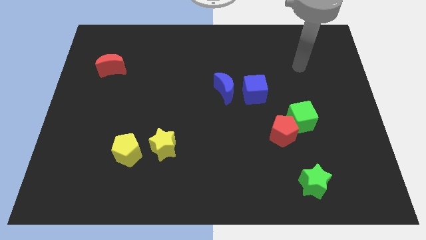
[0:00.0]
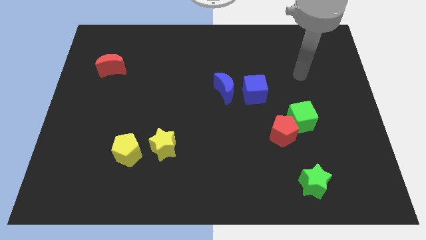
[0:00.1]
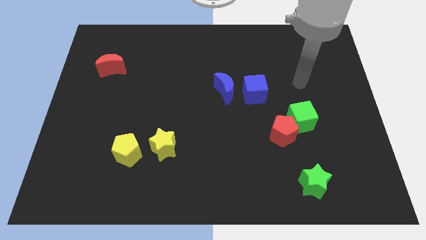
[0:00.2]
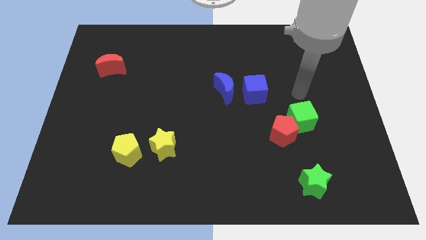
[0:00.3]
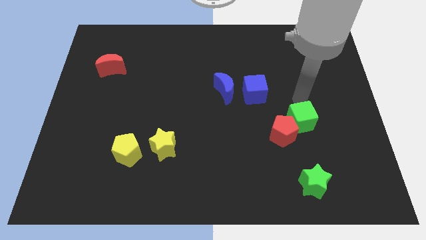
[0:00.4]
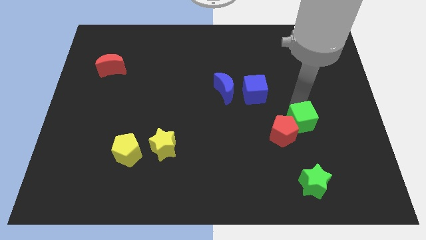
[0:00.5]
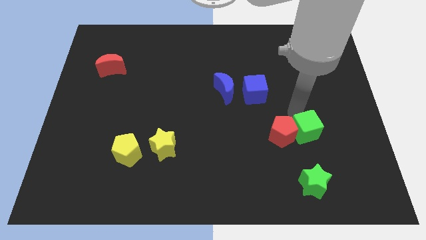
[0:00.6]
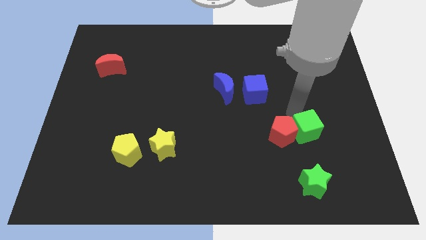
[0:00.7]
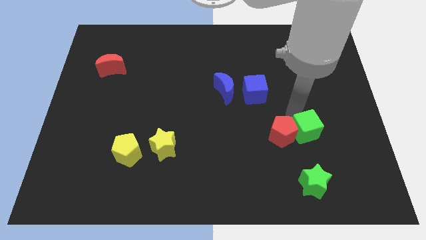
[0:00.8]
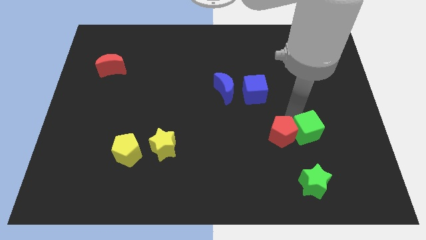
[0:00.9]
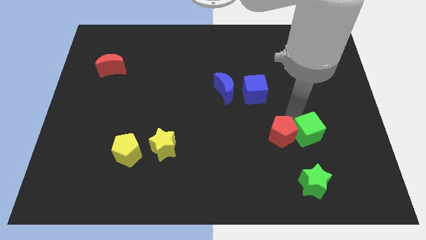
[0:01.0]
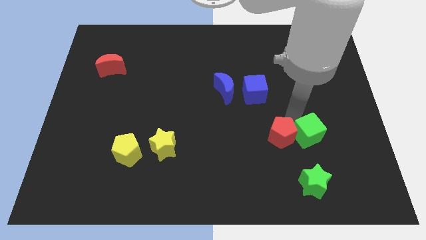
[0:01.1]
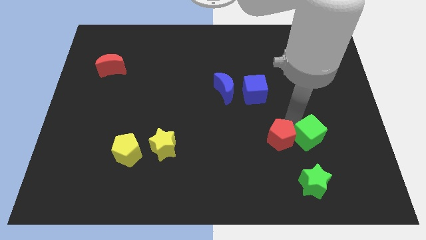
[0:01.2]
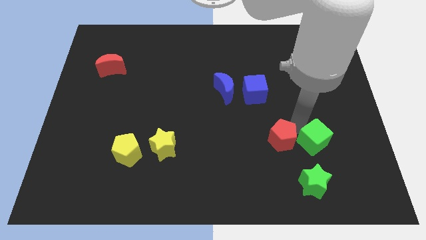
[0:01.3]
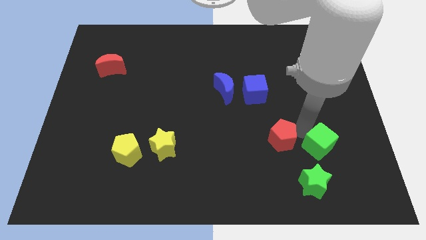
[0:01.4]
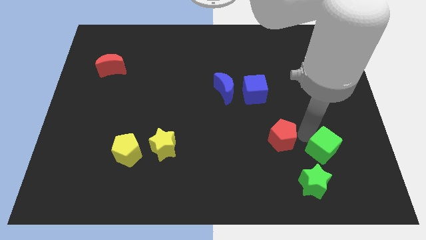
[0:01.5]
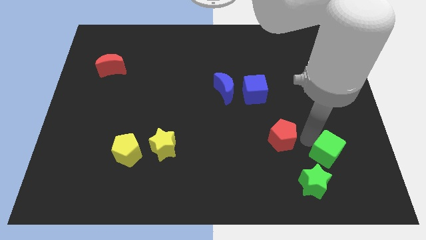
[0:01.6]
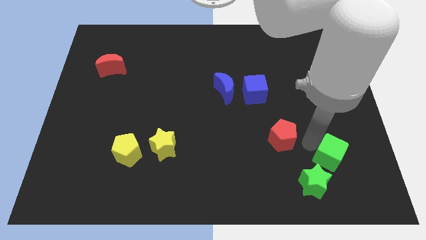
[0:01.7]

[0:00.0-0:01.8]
move the red pentagon away from the green cube

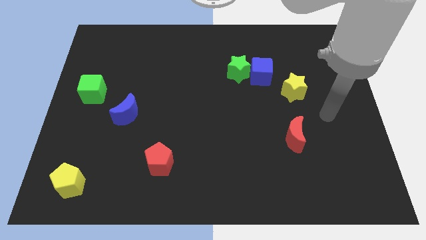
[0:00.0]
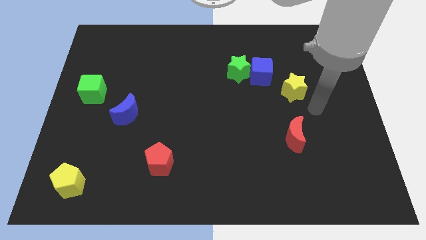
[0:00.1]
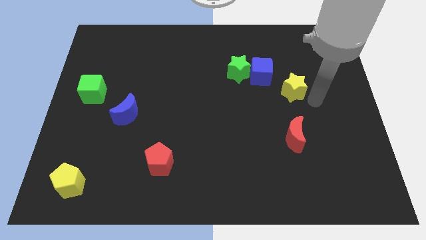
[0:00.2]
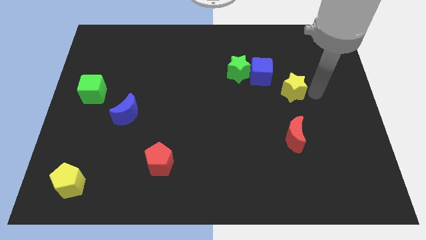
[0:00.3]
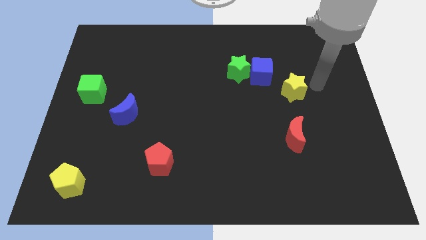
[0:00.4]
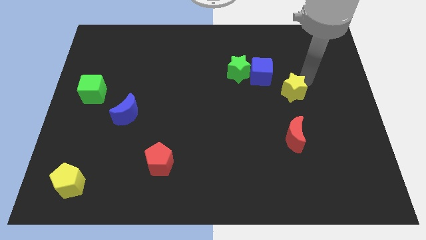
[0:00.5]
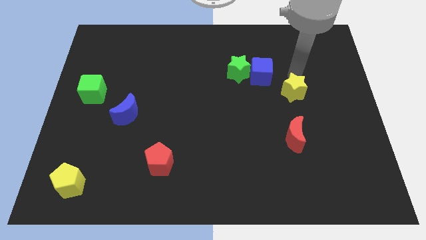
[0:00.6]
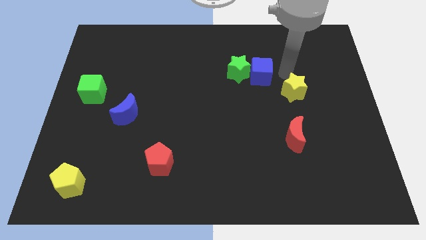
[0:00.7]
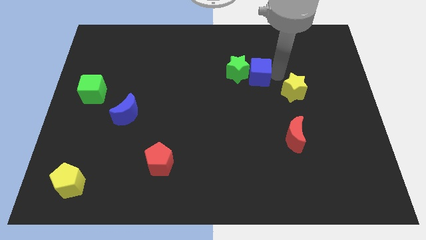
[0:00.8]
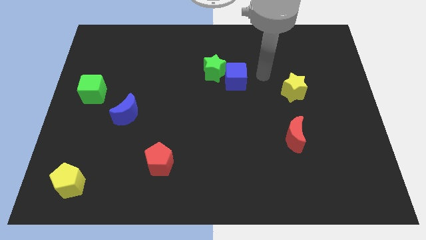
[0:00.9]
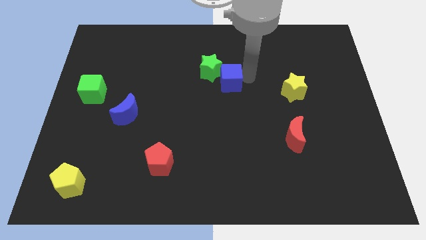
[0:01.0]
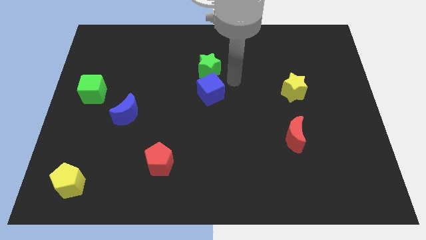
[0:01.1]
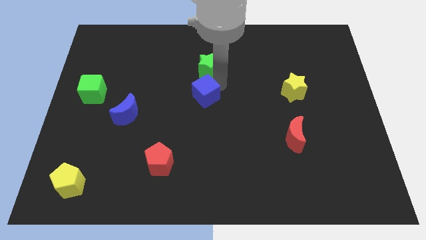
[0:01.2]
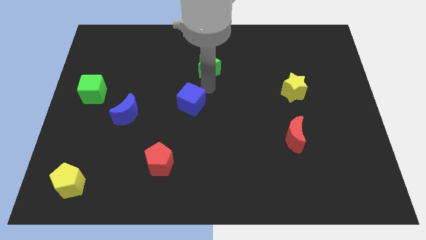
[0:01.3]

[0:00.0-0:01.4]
move the green star away from the blue cube

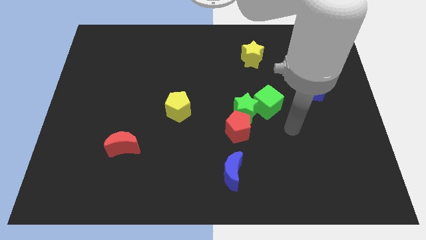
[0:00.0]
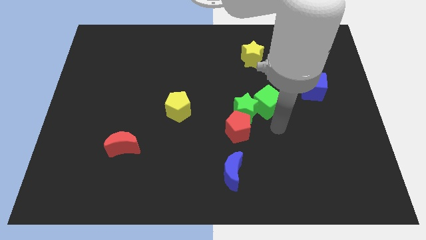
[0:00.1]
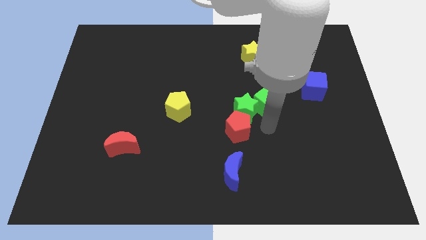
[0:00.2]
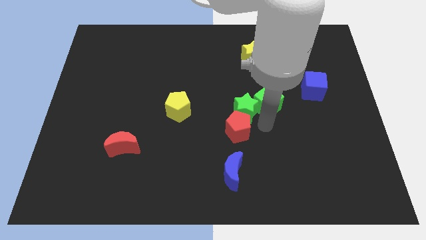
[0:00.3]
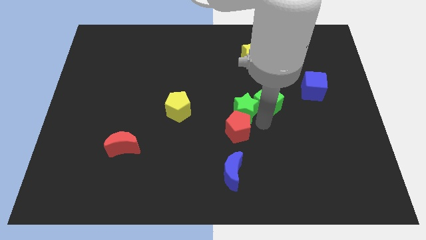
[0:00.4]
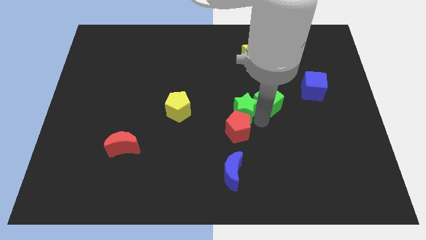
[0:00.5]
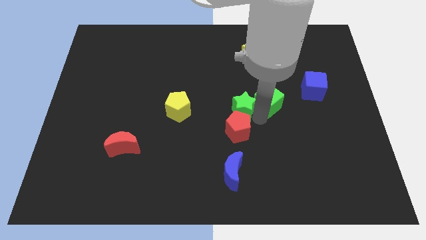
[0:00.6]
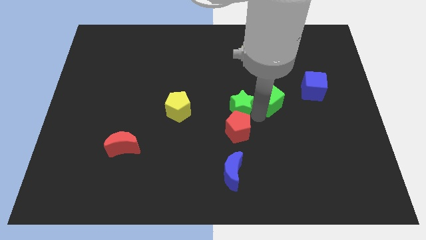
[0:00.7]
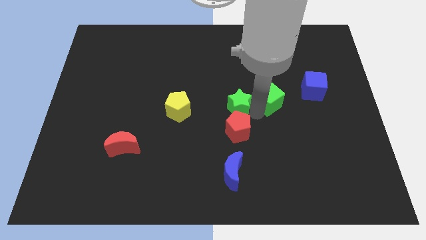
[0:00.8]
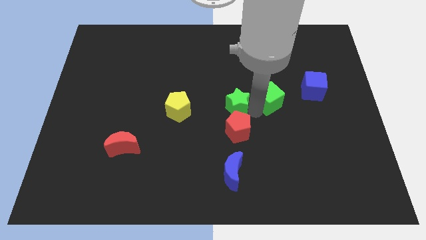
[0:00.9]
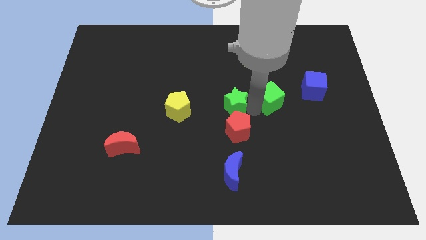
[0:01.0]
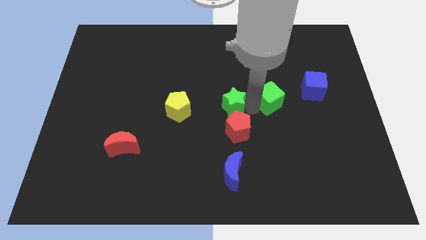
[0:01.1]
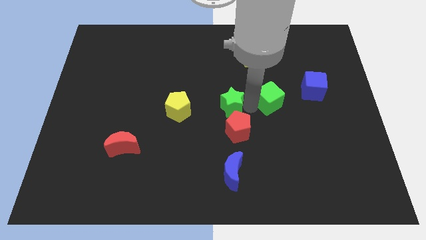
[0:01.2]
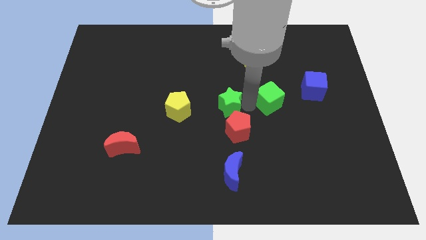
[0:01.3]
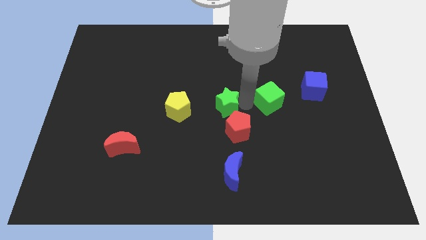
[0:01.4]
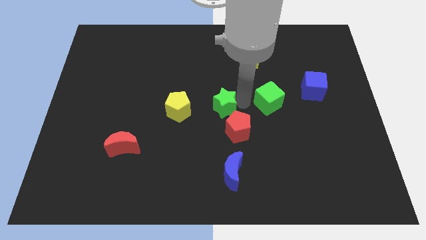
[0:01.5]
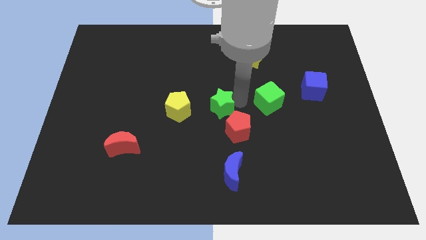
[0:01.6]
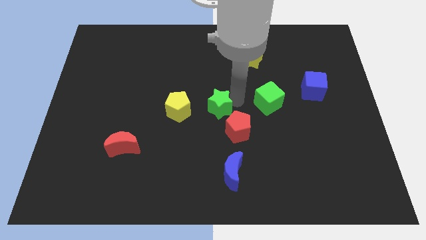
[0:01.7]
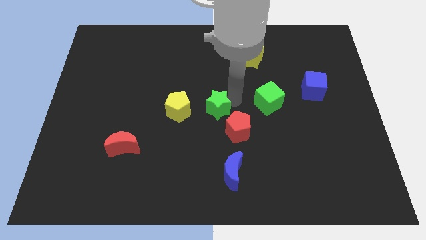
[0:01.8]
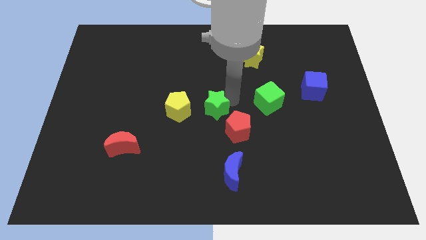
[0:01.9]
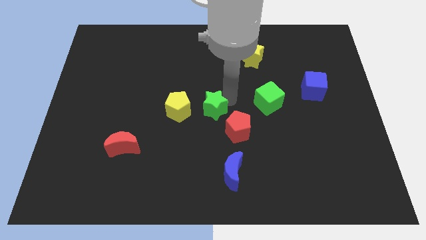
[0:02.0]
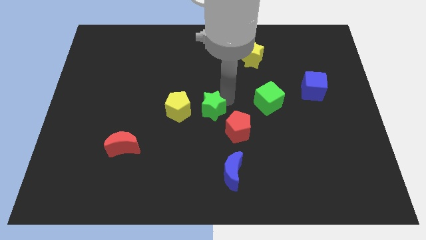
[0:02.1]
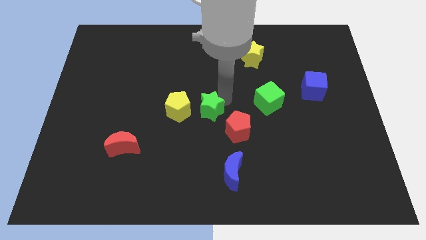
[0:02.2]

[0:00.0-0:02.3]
separate the green star from the green cube and red pentagon

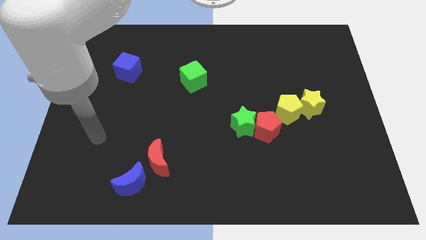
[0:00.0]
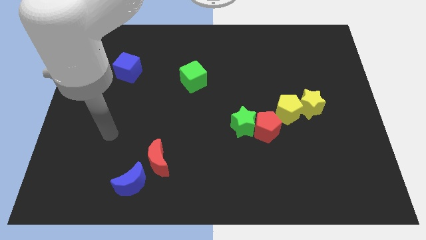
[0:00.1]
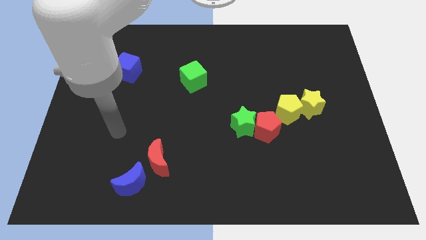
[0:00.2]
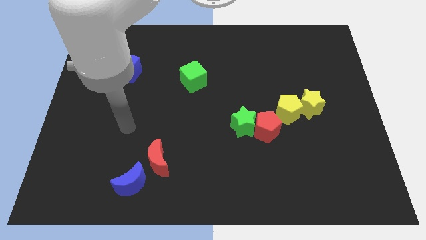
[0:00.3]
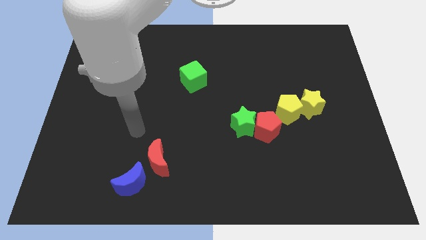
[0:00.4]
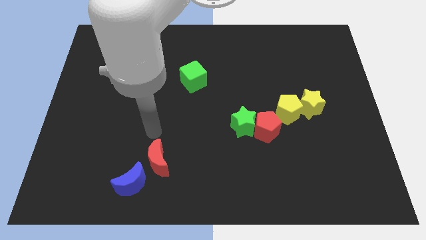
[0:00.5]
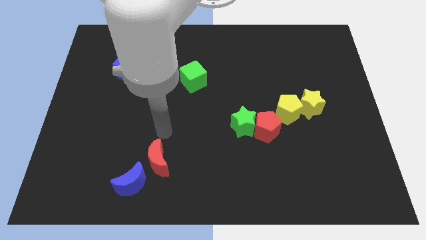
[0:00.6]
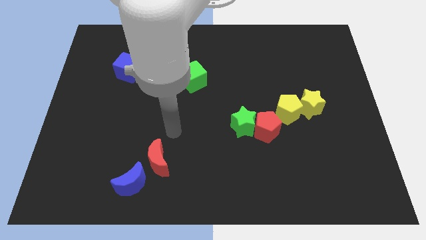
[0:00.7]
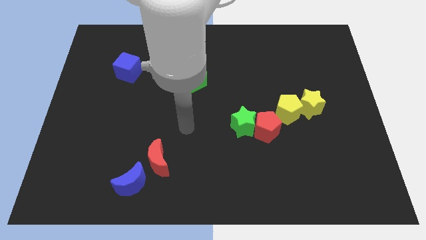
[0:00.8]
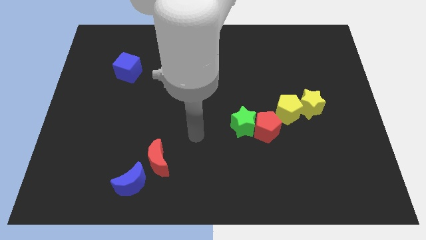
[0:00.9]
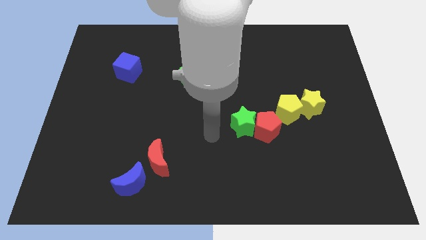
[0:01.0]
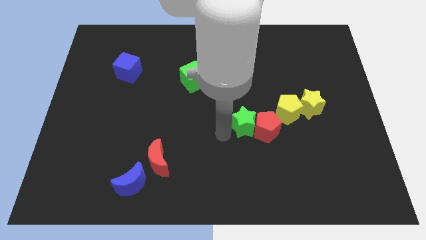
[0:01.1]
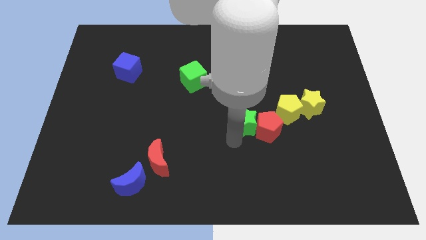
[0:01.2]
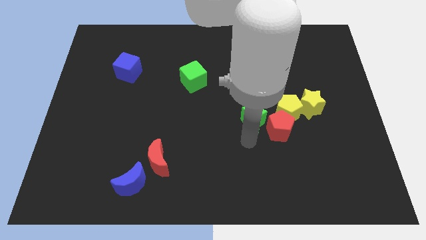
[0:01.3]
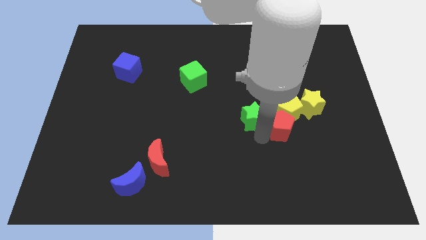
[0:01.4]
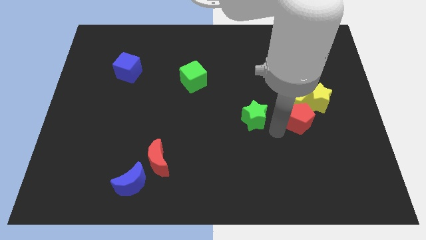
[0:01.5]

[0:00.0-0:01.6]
move the green star away from the red pentagon

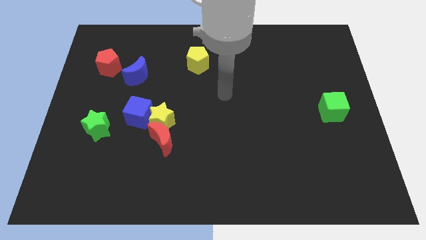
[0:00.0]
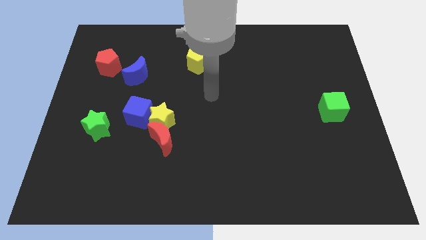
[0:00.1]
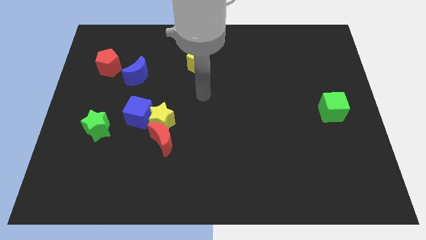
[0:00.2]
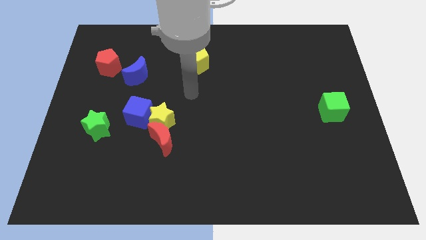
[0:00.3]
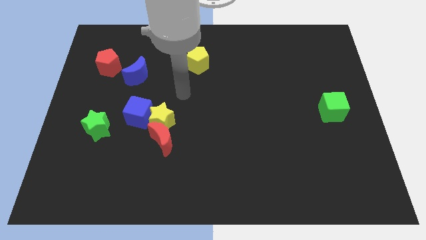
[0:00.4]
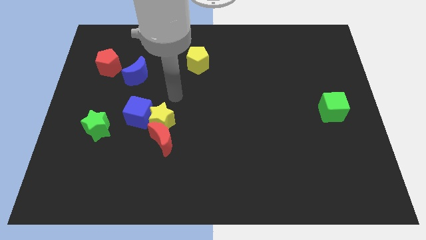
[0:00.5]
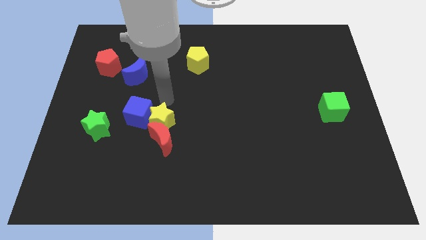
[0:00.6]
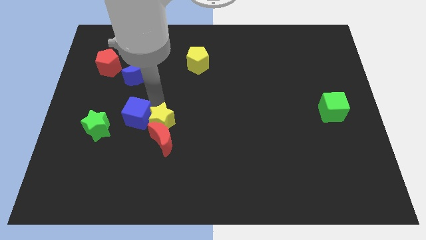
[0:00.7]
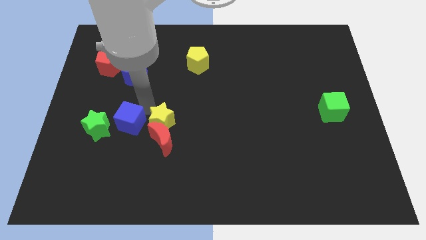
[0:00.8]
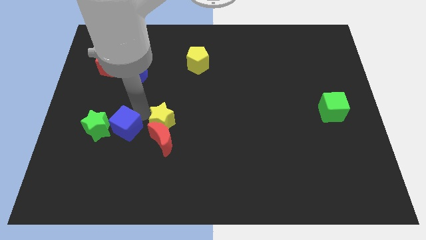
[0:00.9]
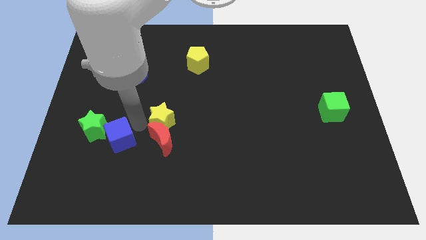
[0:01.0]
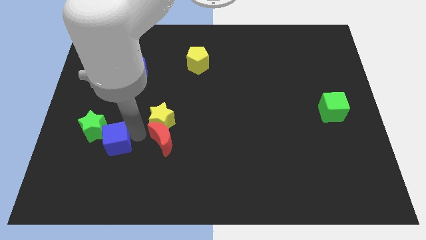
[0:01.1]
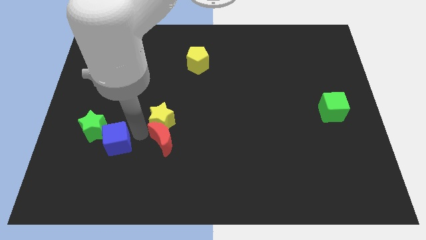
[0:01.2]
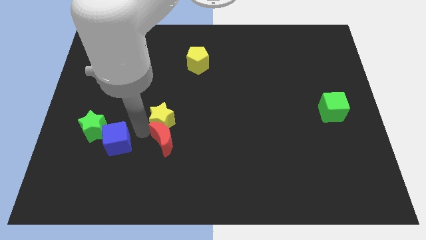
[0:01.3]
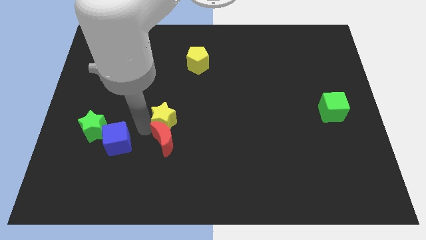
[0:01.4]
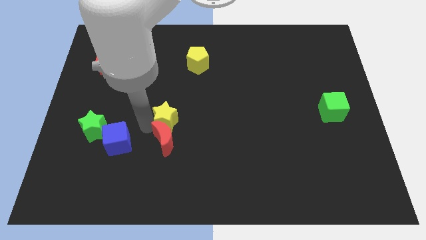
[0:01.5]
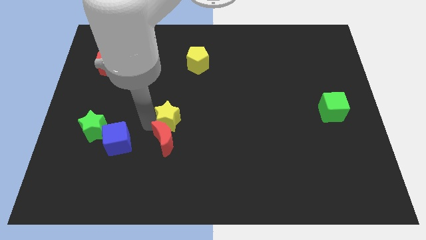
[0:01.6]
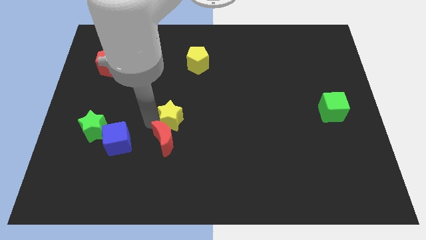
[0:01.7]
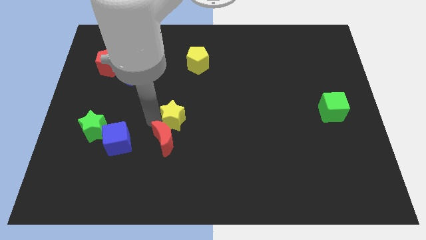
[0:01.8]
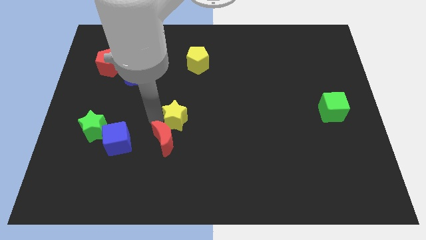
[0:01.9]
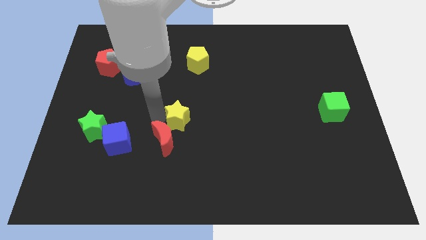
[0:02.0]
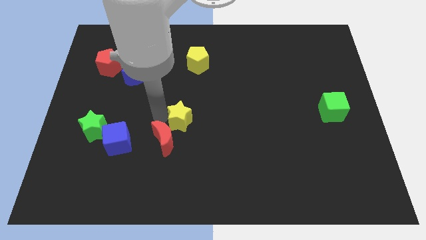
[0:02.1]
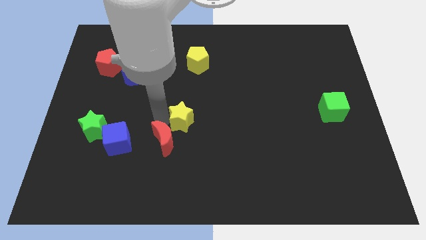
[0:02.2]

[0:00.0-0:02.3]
separate the yellow star from the red moon and blue cube
